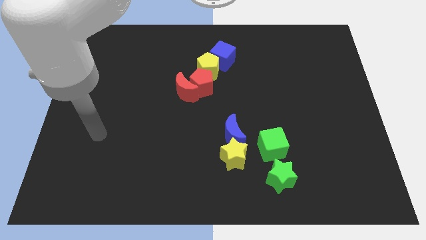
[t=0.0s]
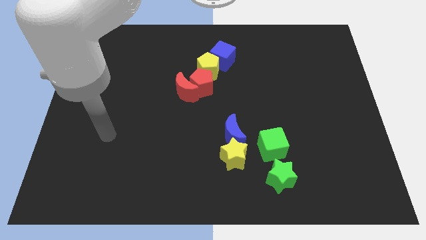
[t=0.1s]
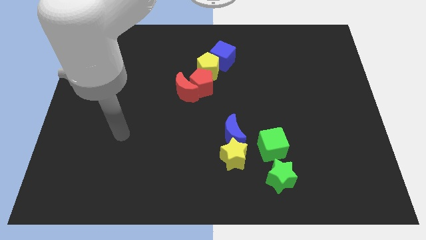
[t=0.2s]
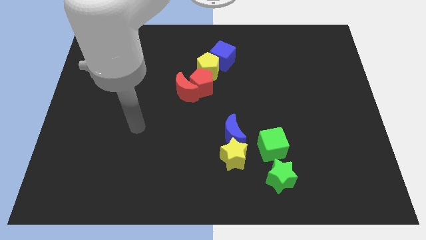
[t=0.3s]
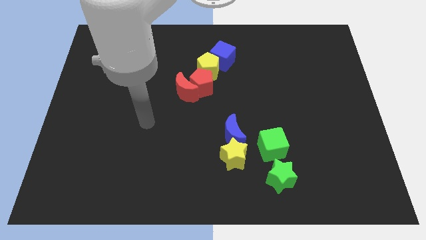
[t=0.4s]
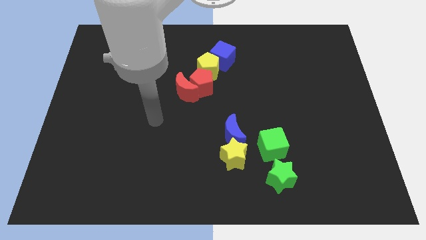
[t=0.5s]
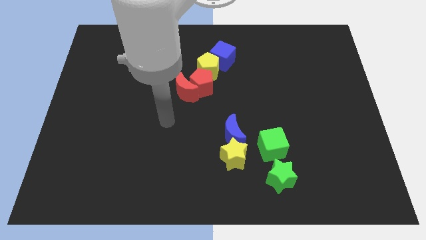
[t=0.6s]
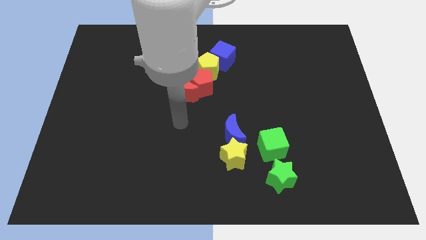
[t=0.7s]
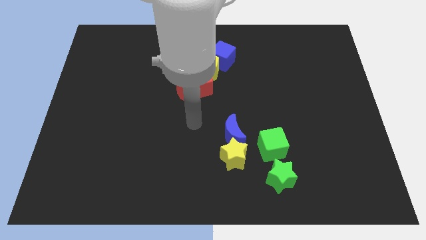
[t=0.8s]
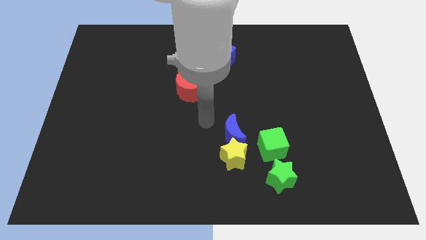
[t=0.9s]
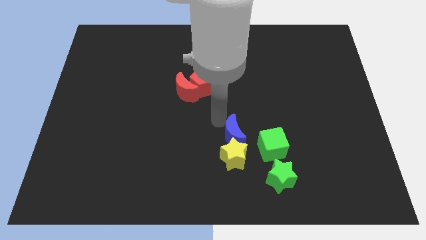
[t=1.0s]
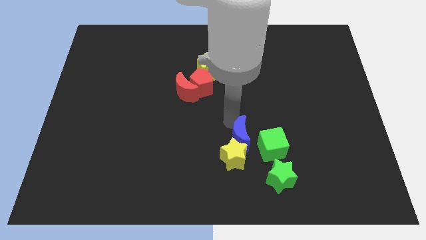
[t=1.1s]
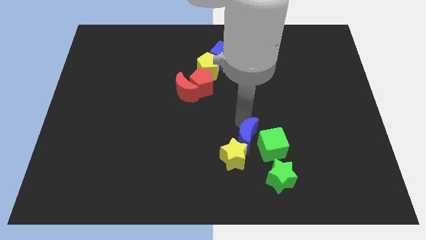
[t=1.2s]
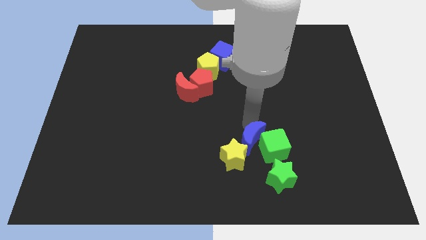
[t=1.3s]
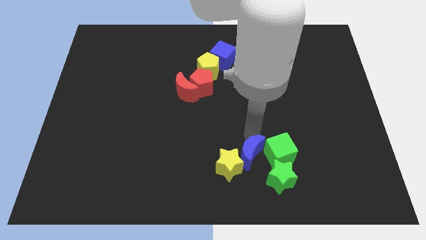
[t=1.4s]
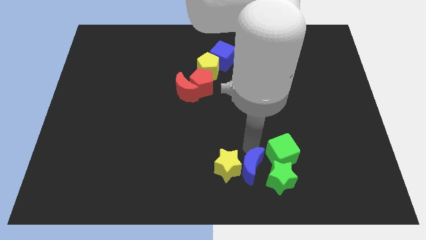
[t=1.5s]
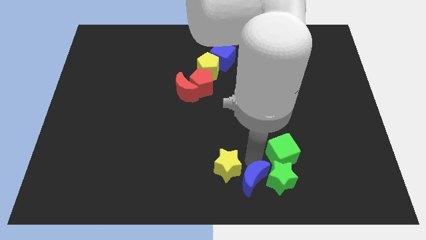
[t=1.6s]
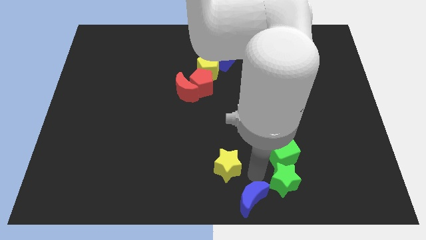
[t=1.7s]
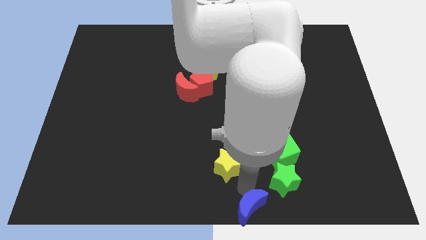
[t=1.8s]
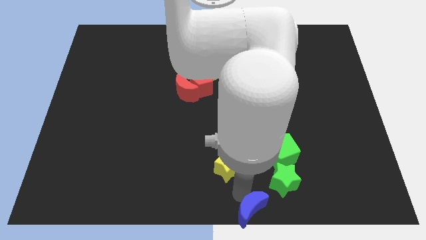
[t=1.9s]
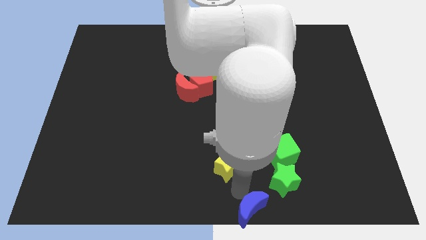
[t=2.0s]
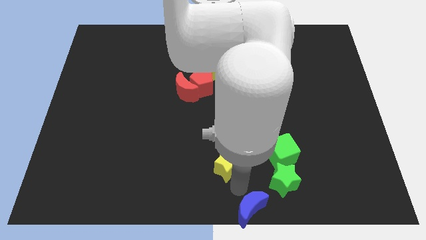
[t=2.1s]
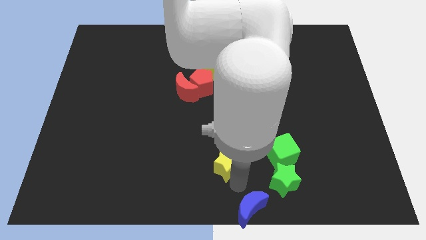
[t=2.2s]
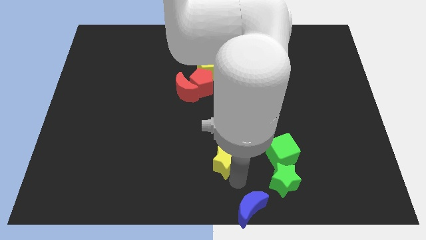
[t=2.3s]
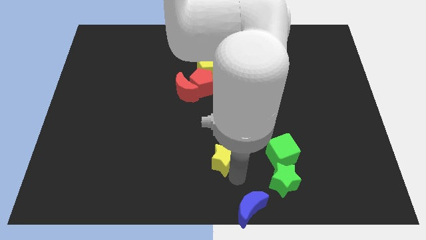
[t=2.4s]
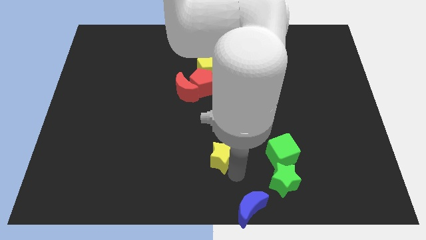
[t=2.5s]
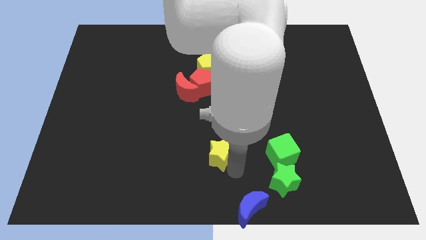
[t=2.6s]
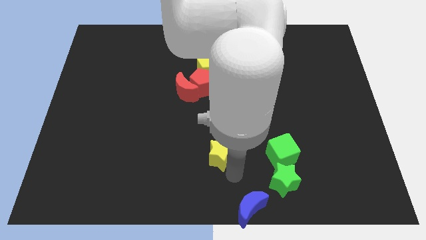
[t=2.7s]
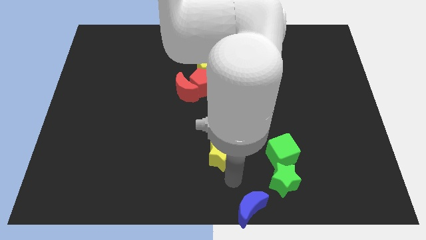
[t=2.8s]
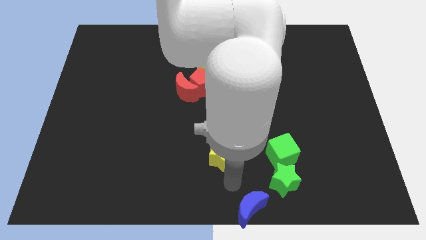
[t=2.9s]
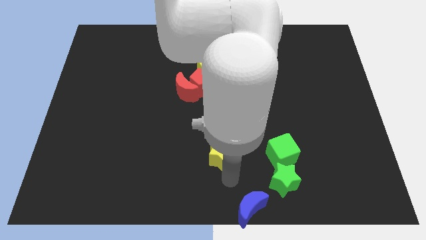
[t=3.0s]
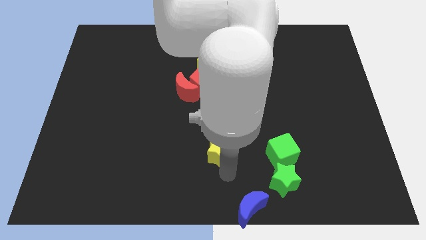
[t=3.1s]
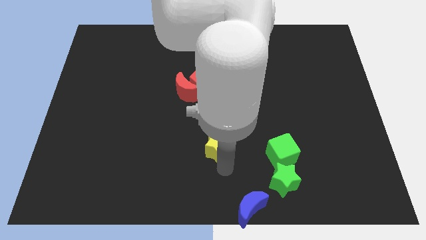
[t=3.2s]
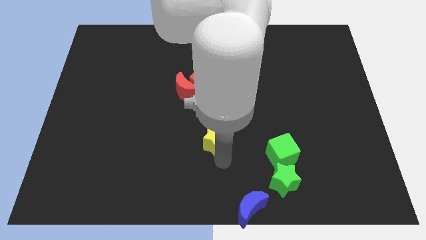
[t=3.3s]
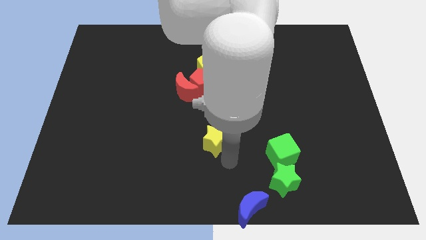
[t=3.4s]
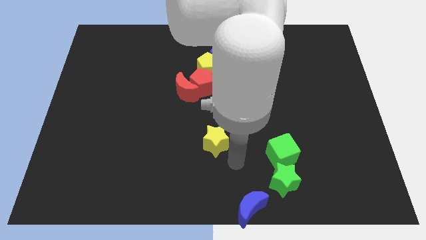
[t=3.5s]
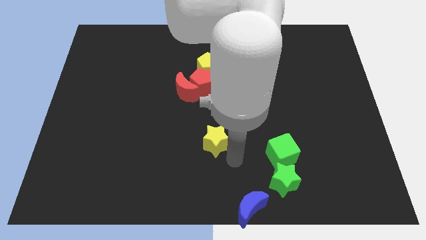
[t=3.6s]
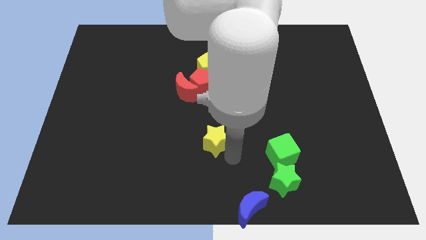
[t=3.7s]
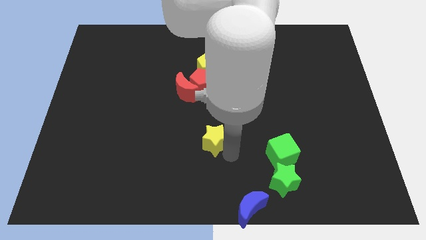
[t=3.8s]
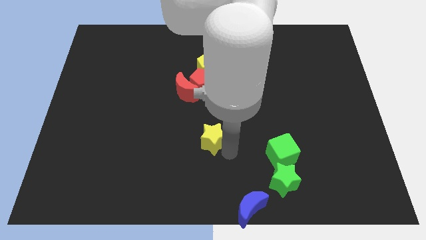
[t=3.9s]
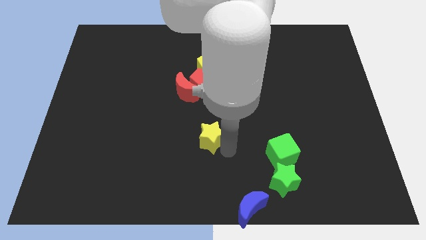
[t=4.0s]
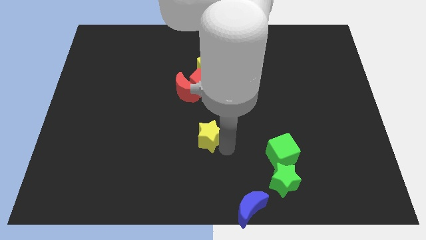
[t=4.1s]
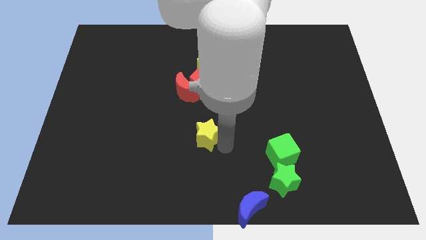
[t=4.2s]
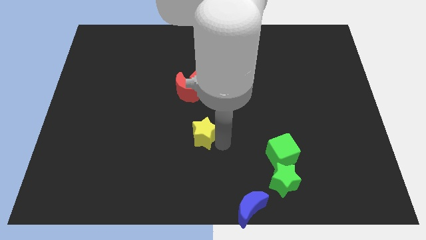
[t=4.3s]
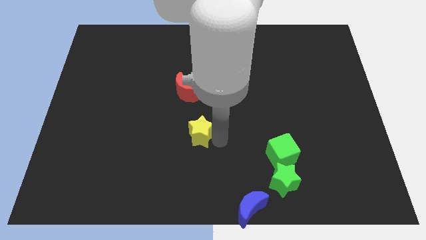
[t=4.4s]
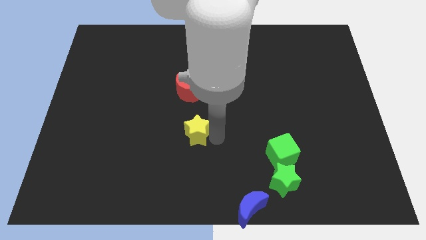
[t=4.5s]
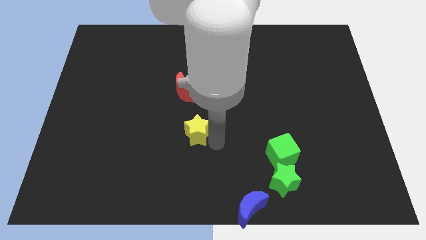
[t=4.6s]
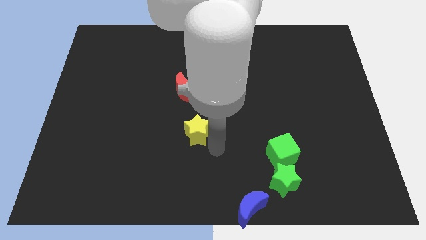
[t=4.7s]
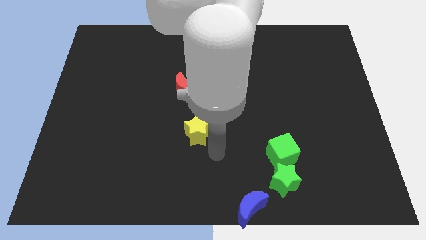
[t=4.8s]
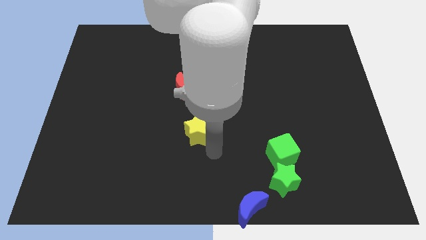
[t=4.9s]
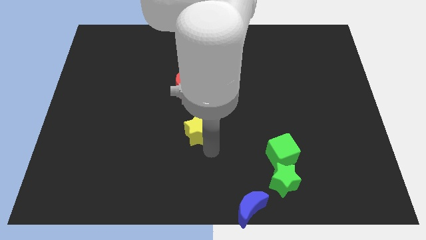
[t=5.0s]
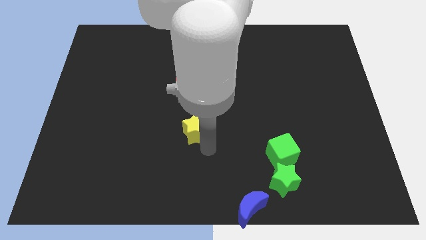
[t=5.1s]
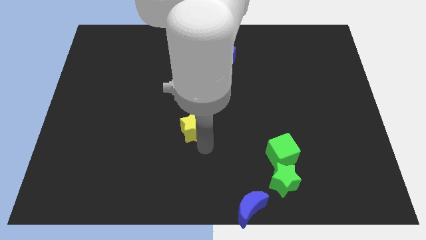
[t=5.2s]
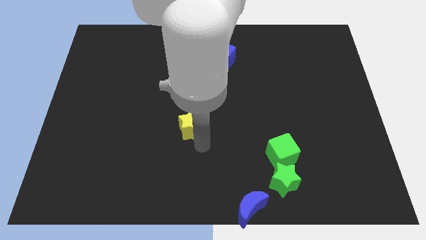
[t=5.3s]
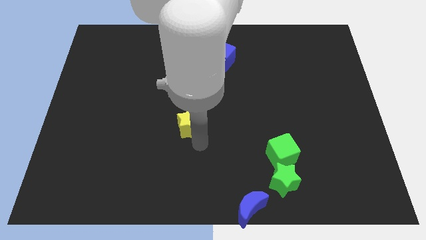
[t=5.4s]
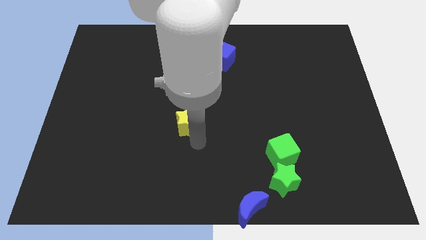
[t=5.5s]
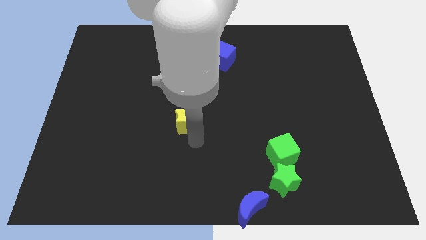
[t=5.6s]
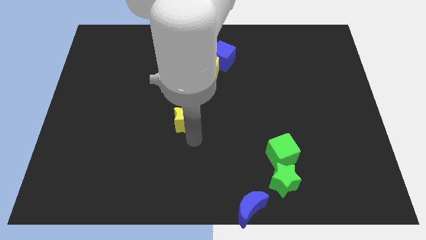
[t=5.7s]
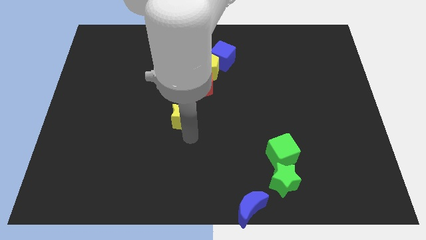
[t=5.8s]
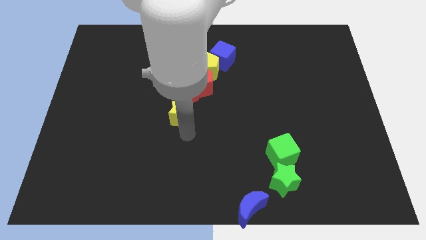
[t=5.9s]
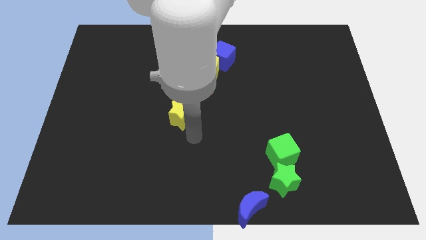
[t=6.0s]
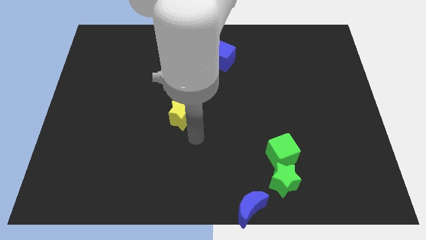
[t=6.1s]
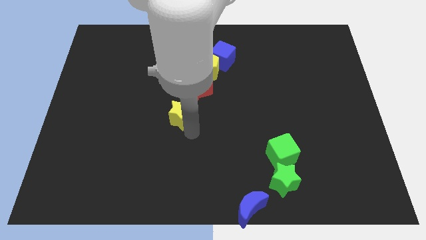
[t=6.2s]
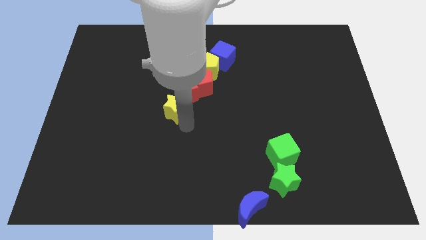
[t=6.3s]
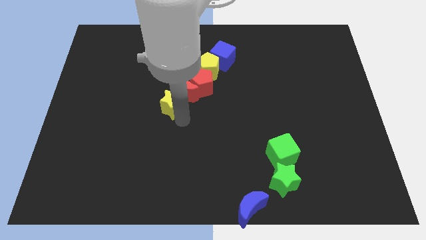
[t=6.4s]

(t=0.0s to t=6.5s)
slide the yellow star up and left diagonally

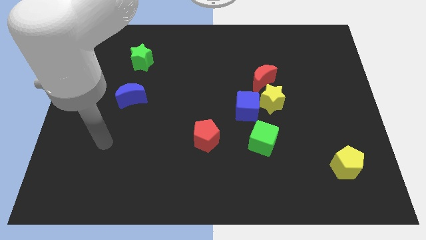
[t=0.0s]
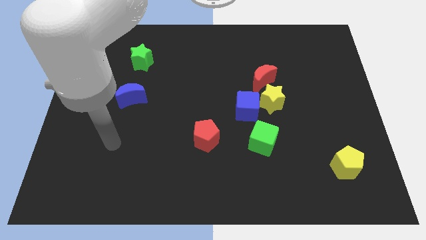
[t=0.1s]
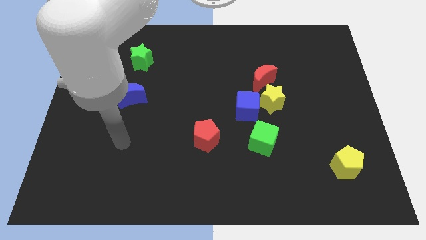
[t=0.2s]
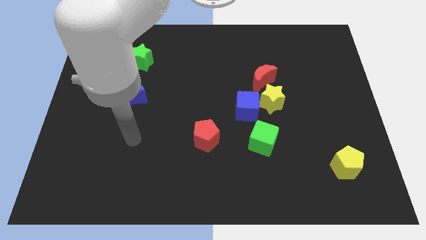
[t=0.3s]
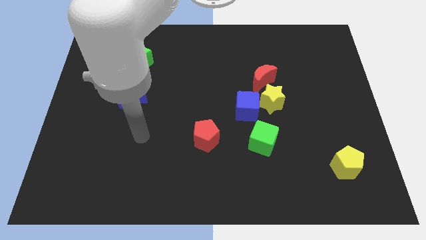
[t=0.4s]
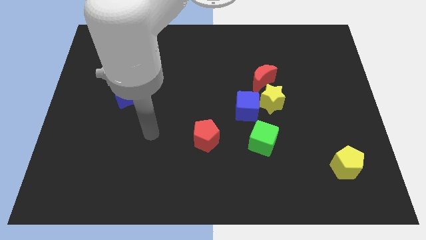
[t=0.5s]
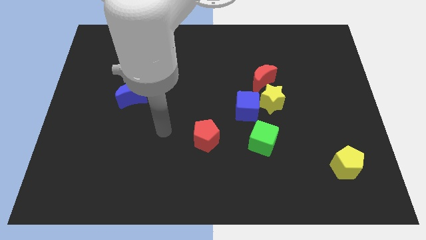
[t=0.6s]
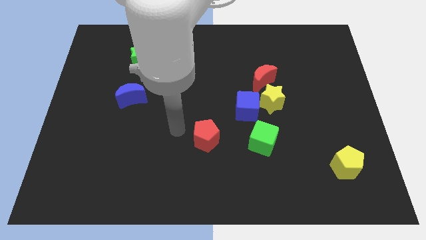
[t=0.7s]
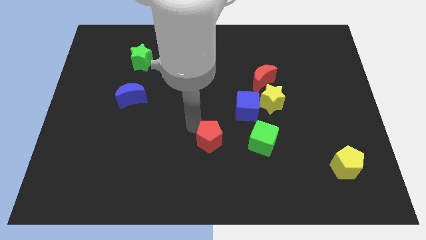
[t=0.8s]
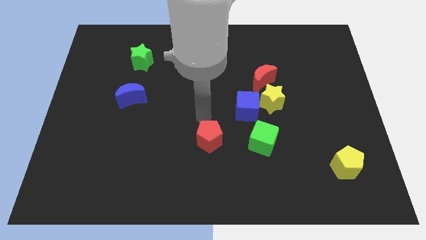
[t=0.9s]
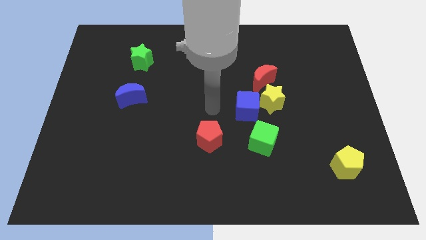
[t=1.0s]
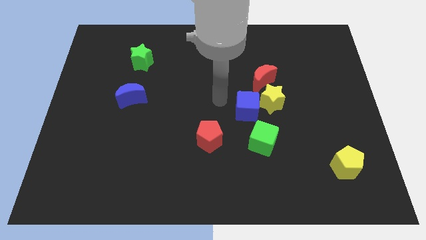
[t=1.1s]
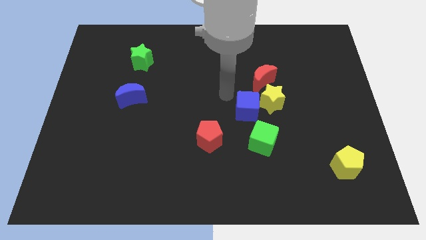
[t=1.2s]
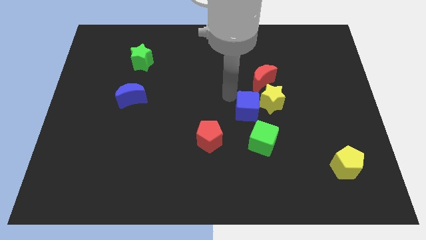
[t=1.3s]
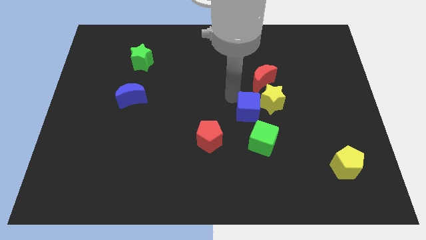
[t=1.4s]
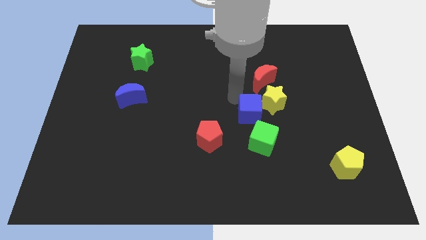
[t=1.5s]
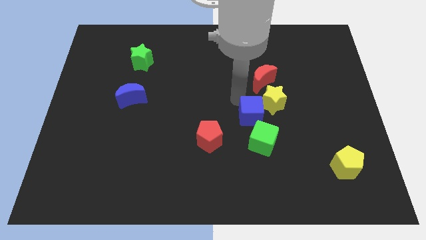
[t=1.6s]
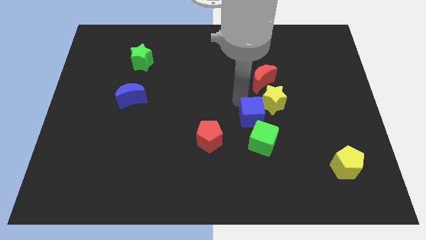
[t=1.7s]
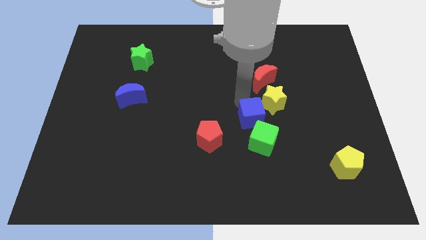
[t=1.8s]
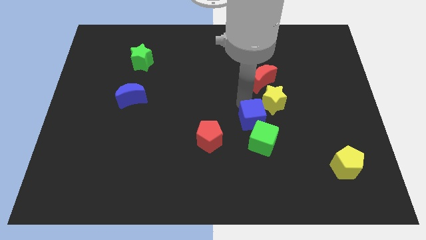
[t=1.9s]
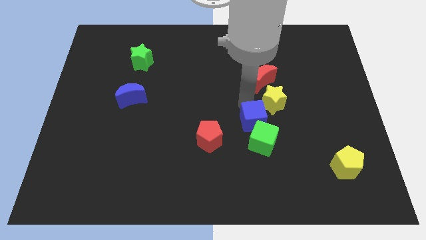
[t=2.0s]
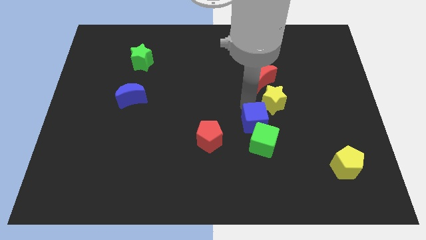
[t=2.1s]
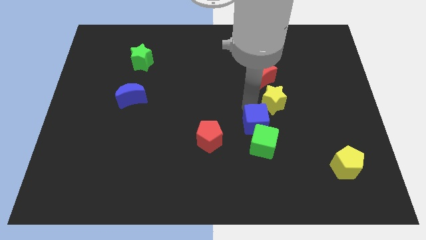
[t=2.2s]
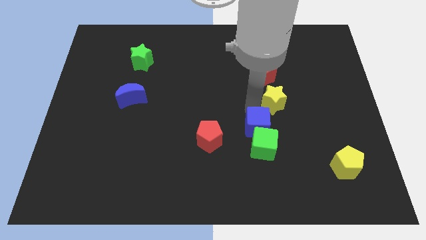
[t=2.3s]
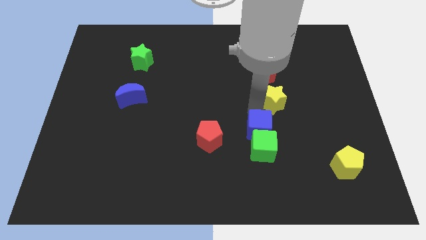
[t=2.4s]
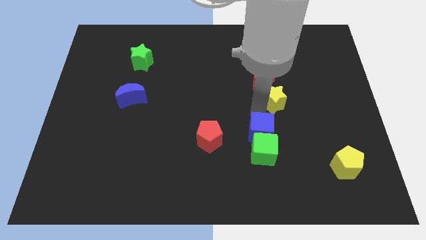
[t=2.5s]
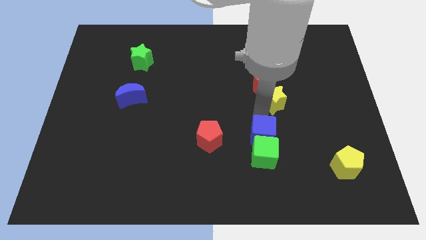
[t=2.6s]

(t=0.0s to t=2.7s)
slightly move the blue cube downwards and to the right
